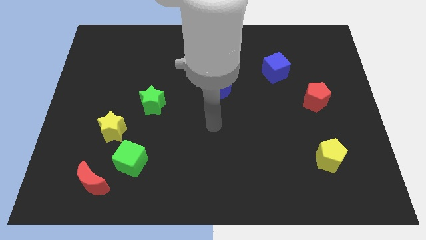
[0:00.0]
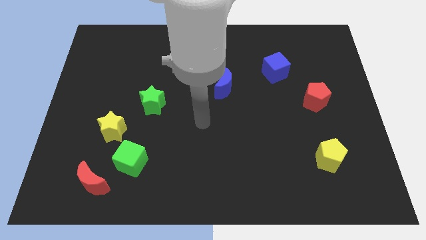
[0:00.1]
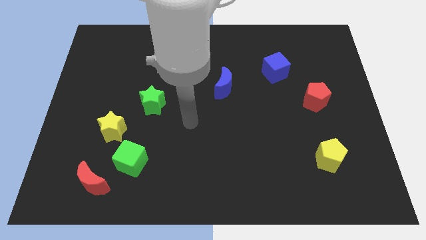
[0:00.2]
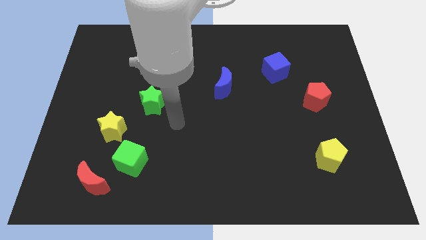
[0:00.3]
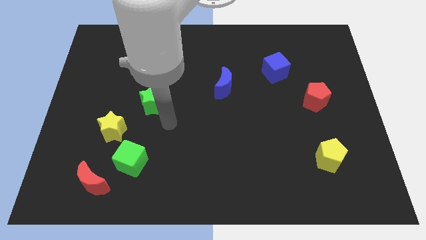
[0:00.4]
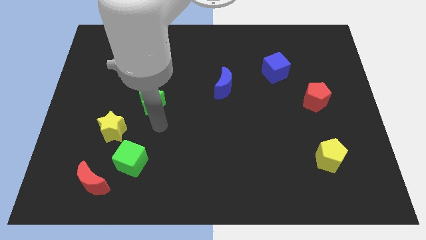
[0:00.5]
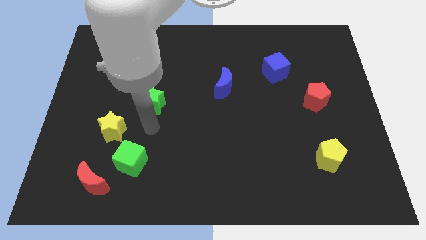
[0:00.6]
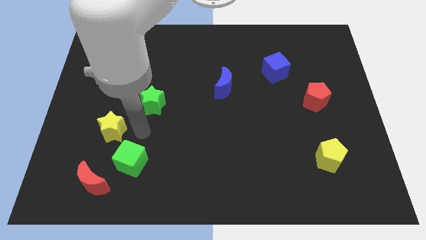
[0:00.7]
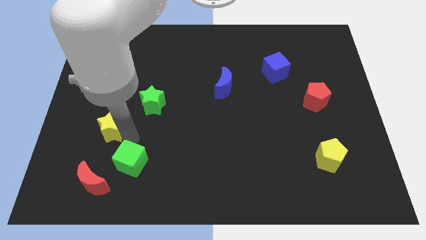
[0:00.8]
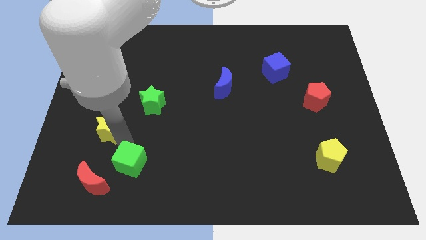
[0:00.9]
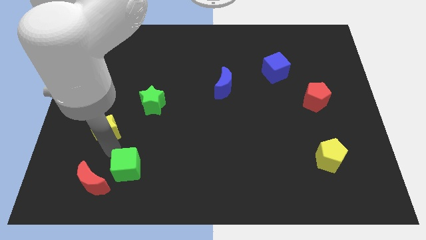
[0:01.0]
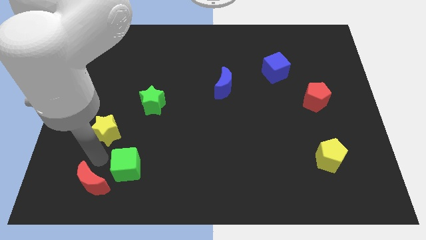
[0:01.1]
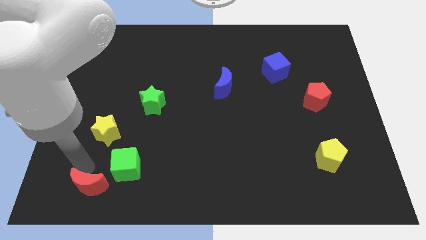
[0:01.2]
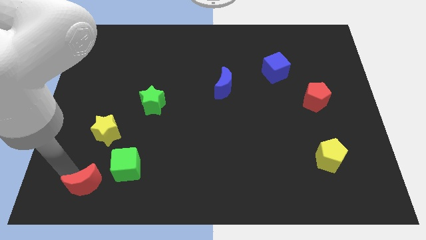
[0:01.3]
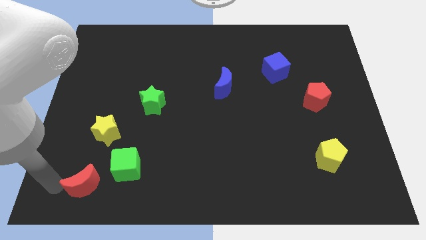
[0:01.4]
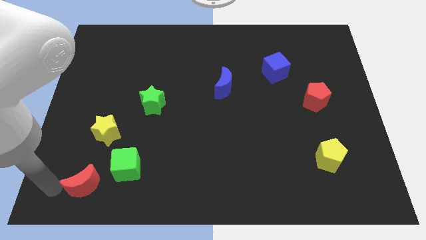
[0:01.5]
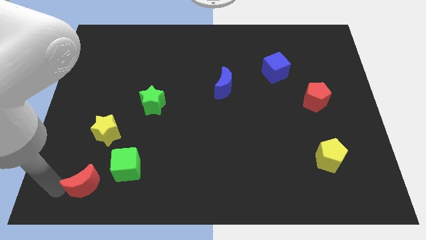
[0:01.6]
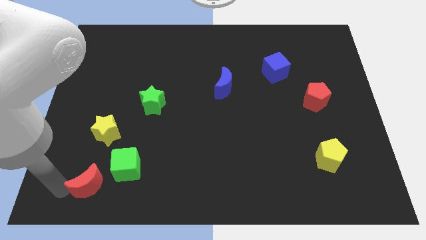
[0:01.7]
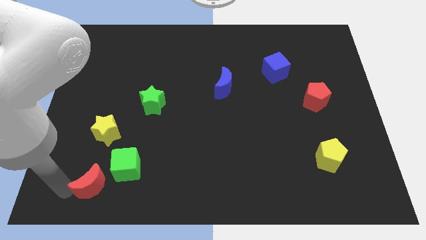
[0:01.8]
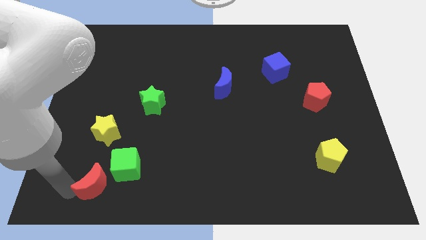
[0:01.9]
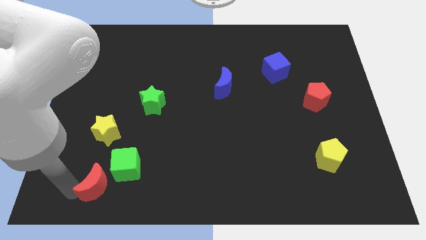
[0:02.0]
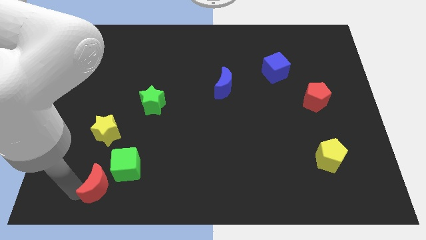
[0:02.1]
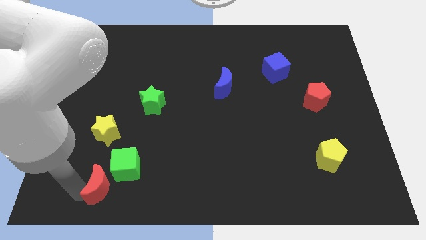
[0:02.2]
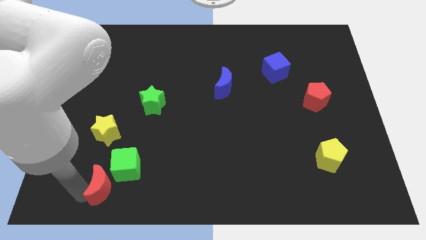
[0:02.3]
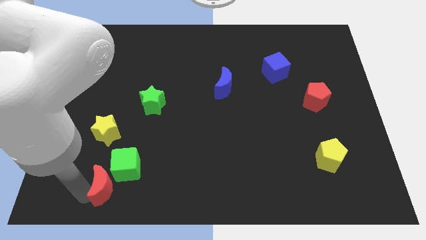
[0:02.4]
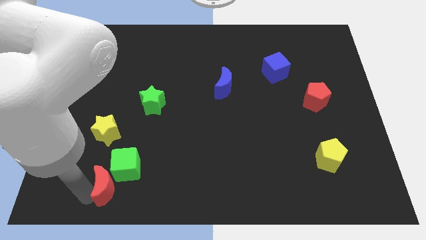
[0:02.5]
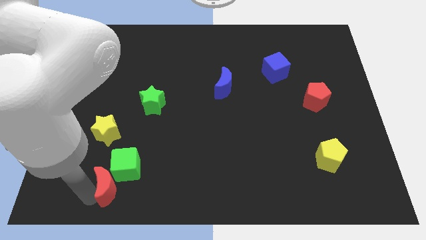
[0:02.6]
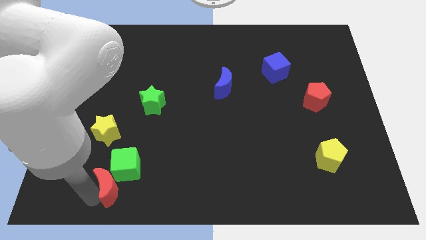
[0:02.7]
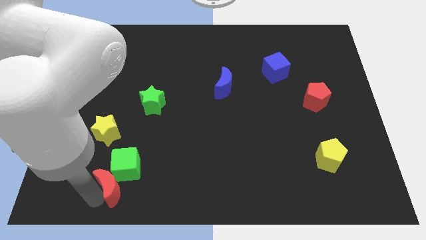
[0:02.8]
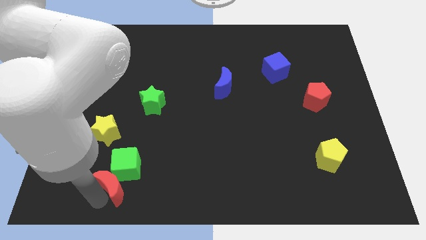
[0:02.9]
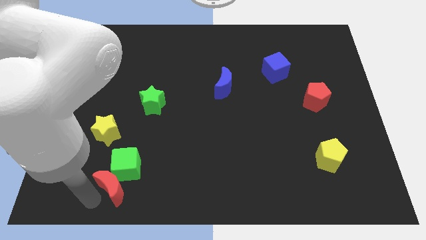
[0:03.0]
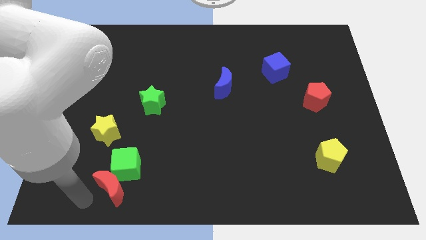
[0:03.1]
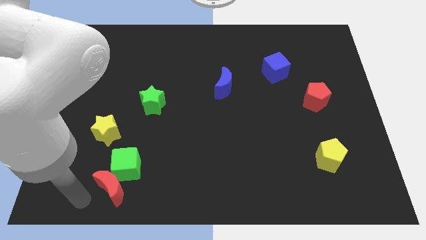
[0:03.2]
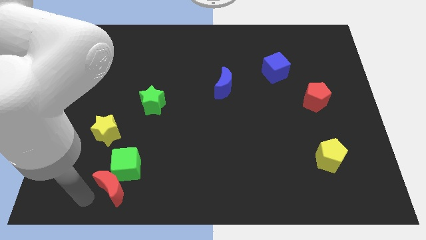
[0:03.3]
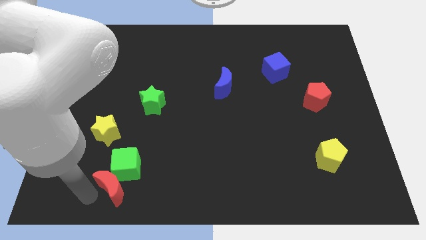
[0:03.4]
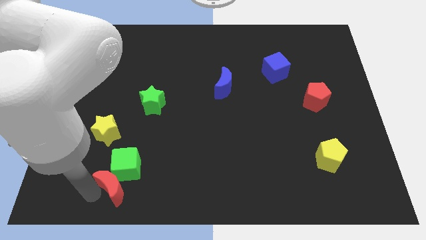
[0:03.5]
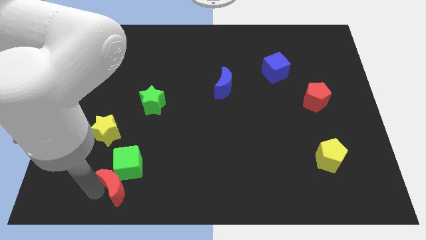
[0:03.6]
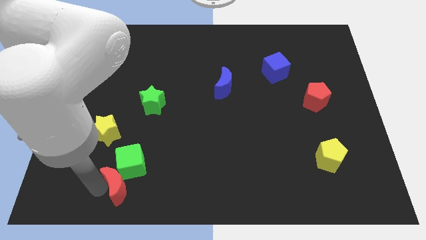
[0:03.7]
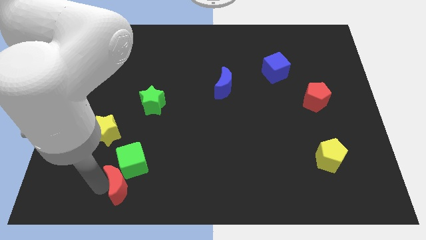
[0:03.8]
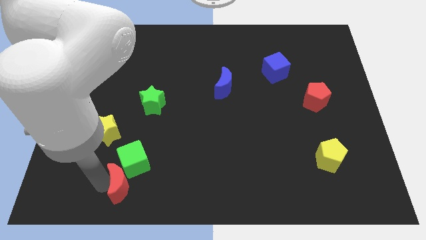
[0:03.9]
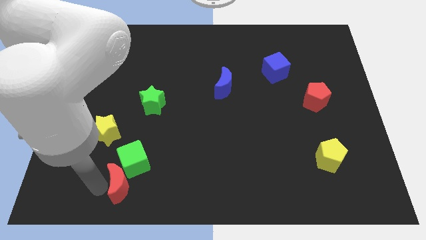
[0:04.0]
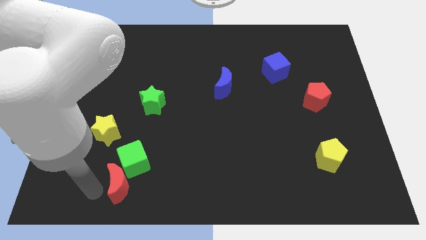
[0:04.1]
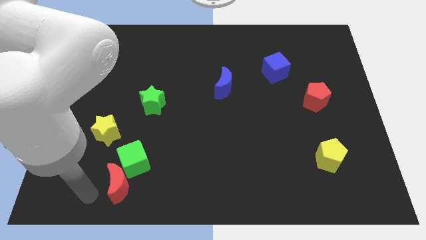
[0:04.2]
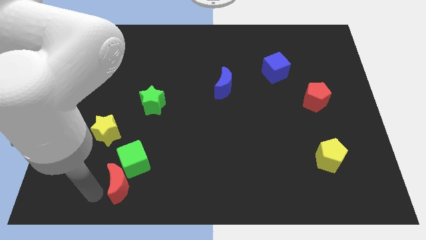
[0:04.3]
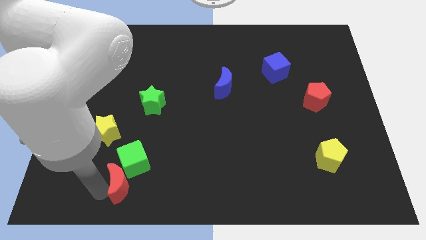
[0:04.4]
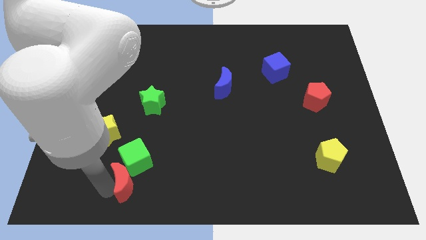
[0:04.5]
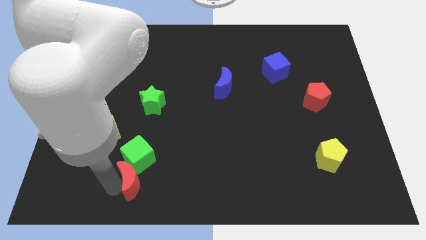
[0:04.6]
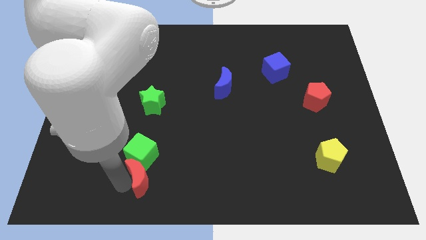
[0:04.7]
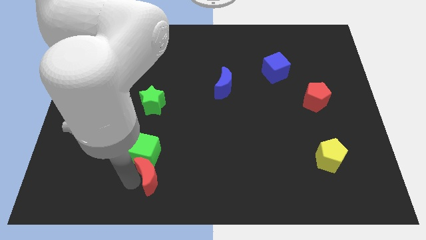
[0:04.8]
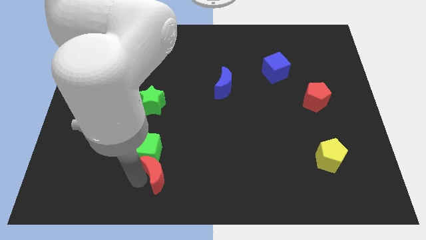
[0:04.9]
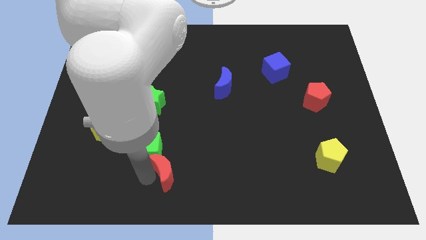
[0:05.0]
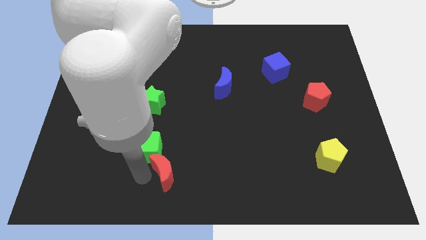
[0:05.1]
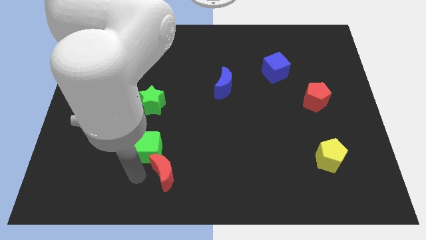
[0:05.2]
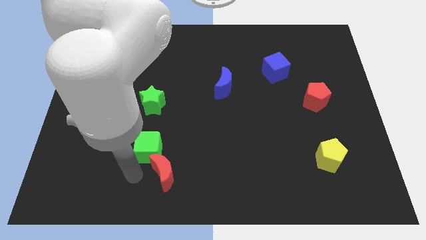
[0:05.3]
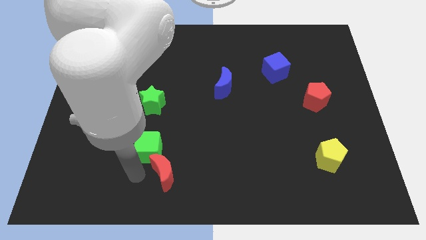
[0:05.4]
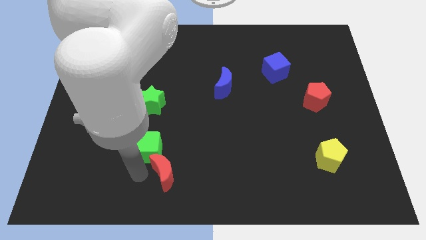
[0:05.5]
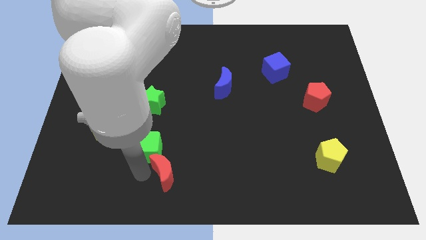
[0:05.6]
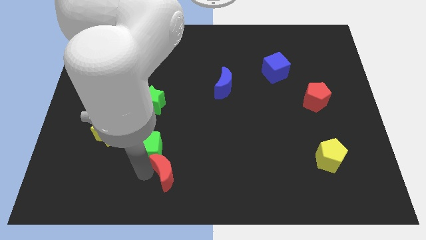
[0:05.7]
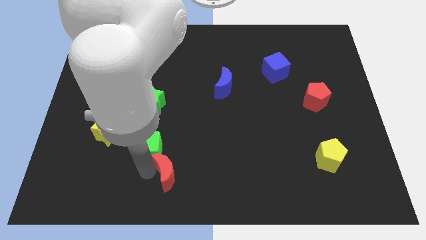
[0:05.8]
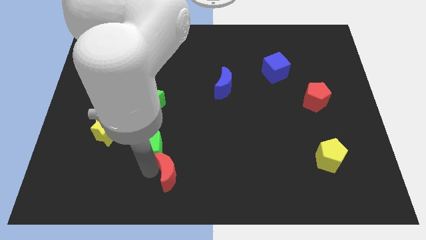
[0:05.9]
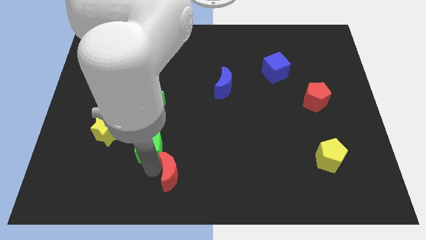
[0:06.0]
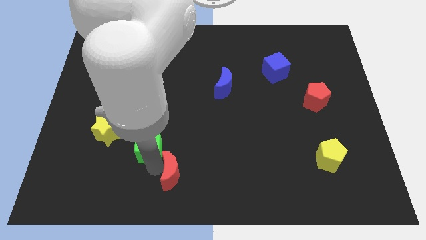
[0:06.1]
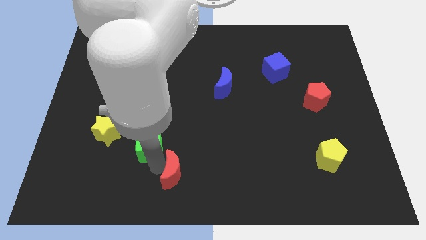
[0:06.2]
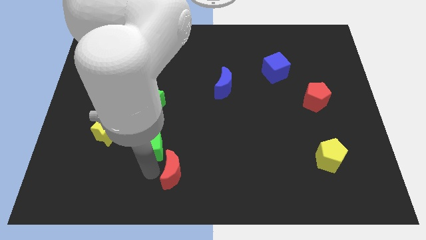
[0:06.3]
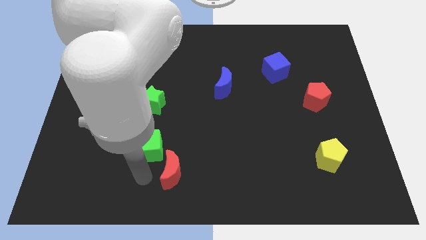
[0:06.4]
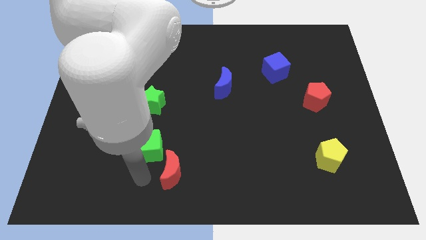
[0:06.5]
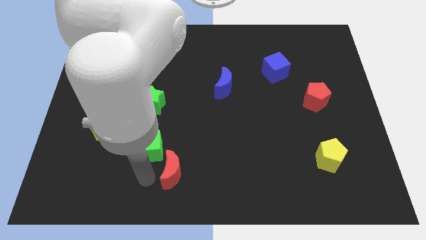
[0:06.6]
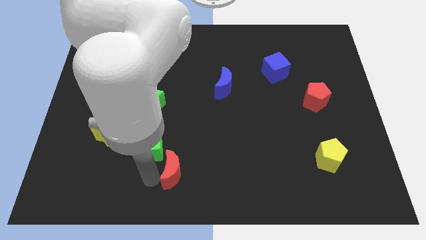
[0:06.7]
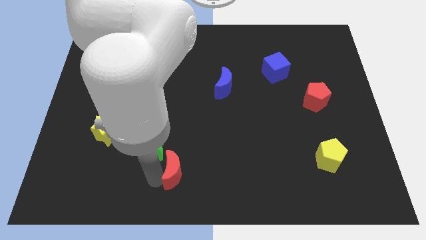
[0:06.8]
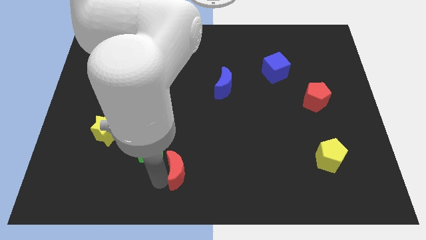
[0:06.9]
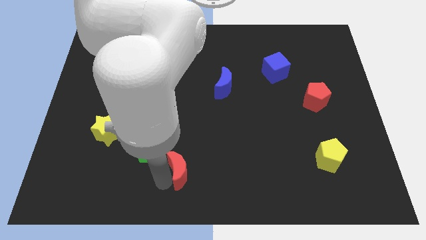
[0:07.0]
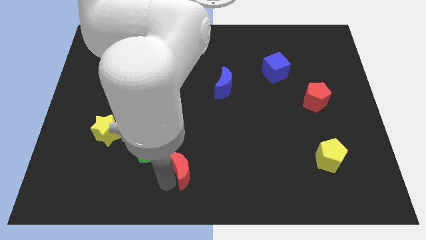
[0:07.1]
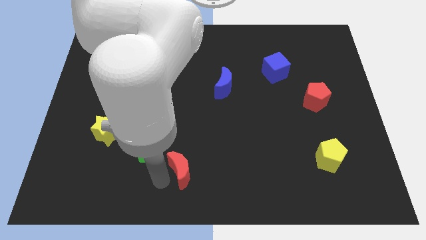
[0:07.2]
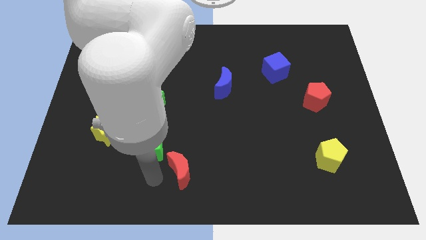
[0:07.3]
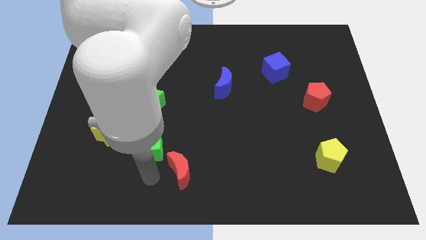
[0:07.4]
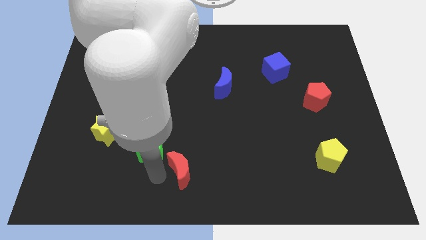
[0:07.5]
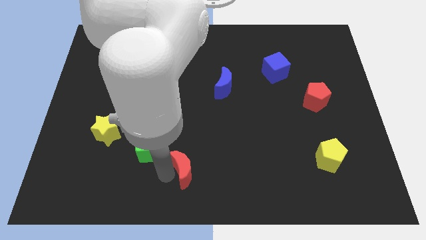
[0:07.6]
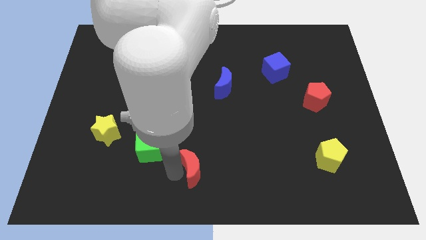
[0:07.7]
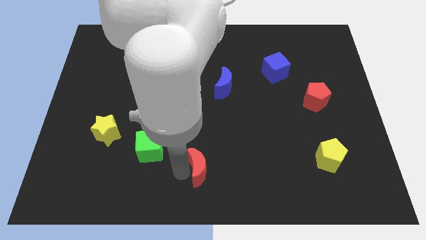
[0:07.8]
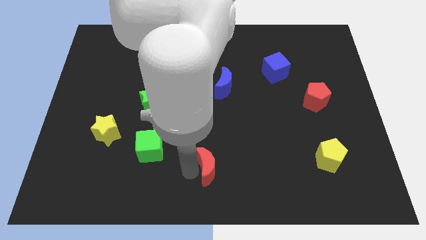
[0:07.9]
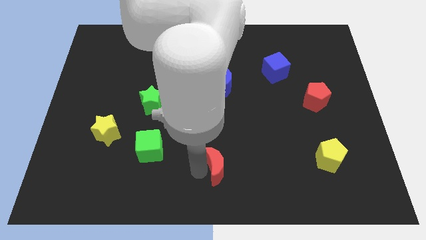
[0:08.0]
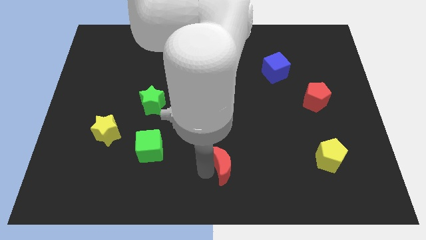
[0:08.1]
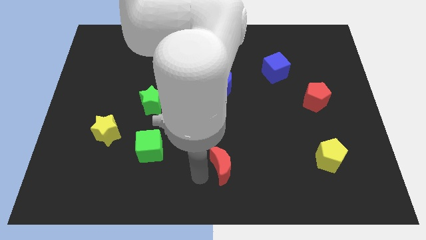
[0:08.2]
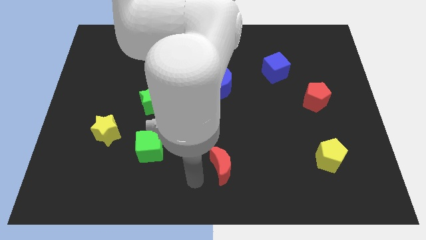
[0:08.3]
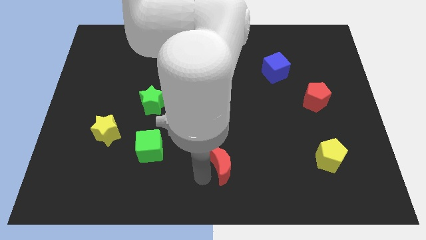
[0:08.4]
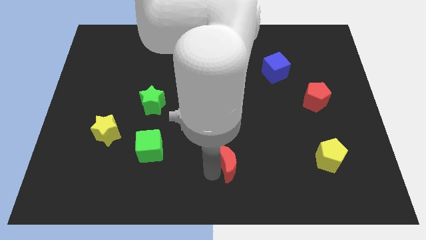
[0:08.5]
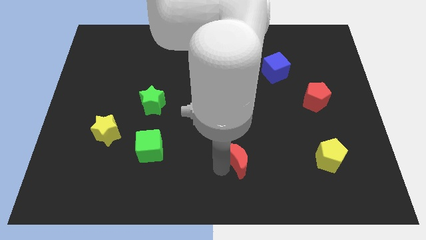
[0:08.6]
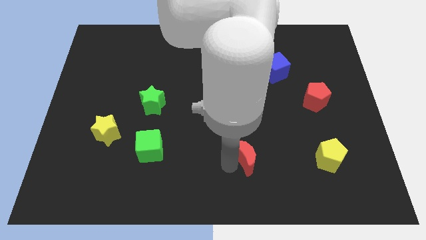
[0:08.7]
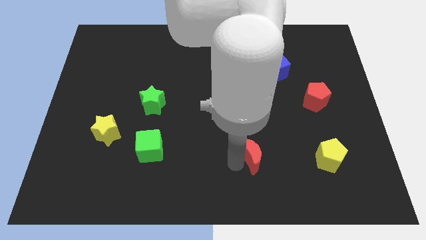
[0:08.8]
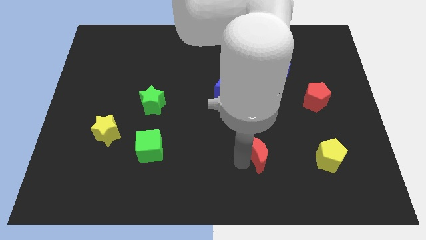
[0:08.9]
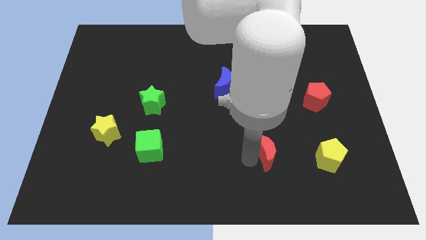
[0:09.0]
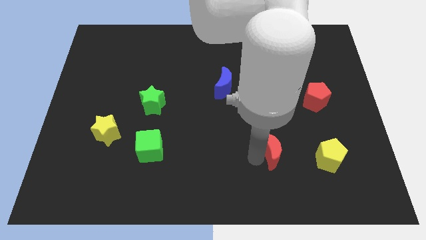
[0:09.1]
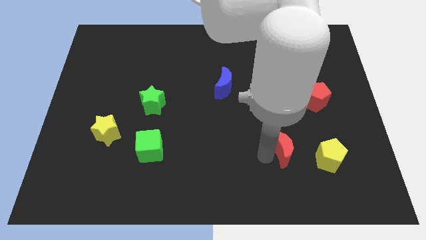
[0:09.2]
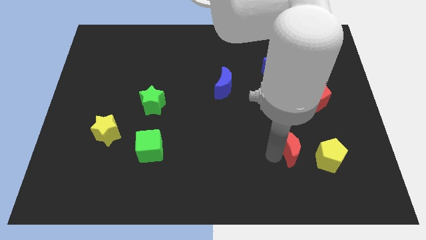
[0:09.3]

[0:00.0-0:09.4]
put the red moon to the top left of the yellow pentagon
